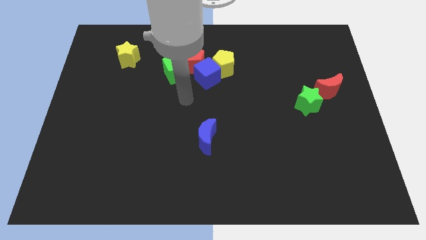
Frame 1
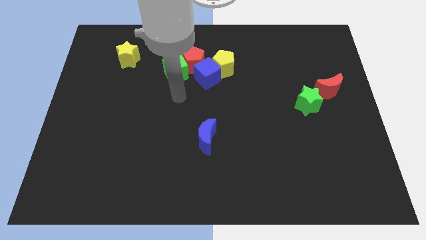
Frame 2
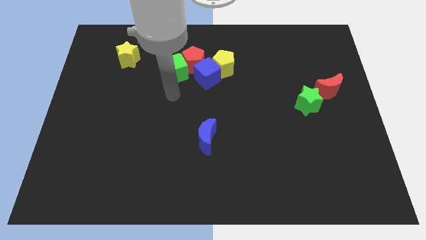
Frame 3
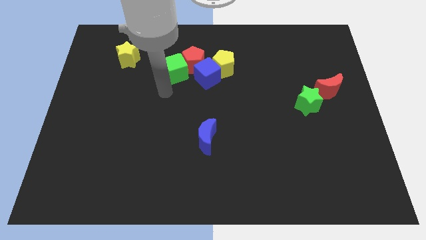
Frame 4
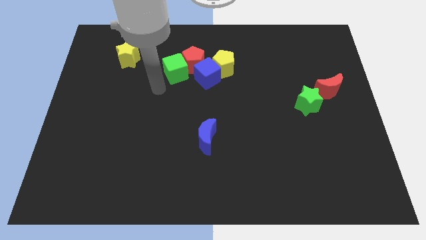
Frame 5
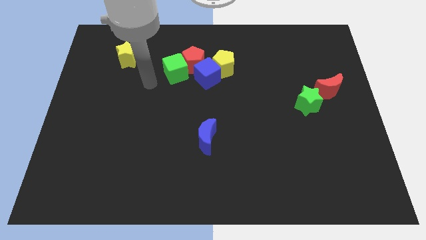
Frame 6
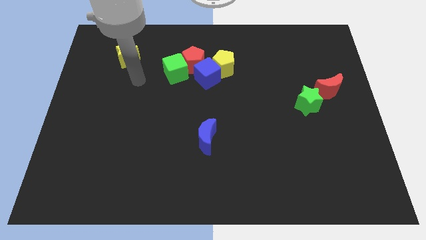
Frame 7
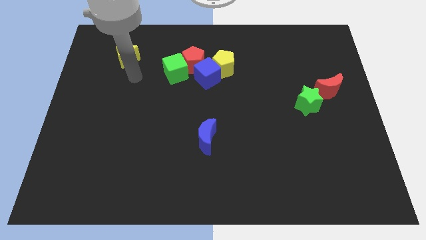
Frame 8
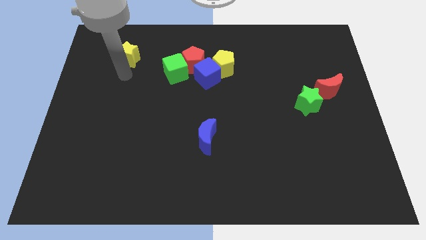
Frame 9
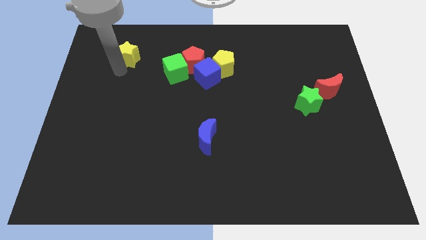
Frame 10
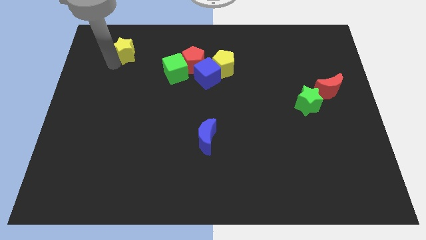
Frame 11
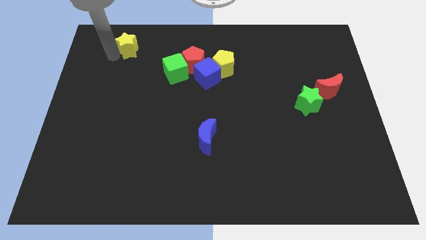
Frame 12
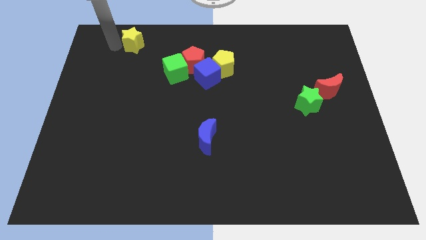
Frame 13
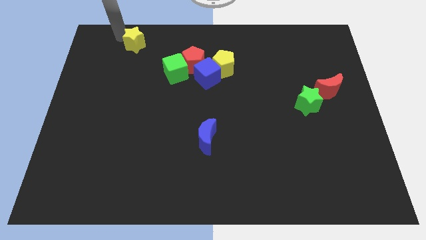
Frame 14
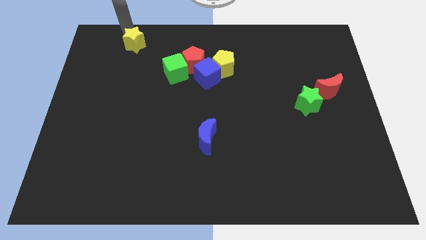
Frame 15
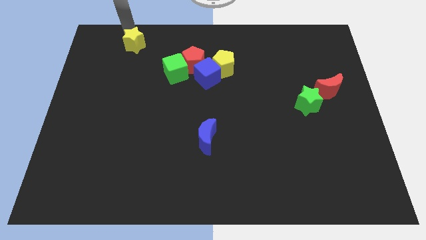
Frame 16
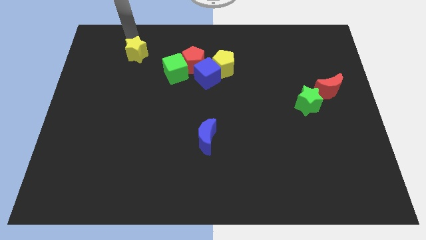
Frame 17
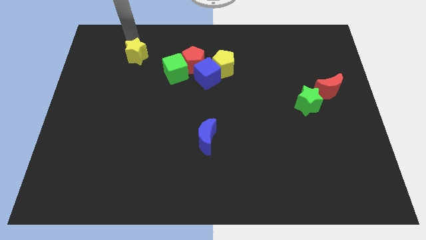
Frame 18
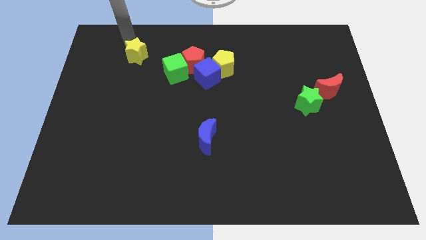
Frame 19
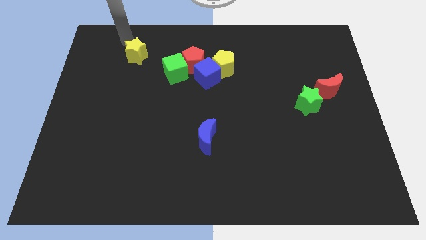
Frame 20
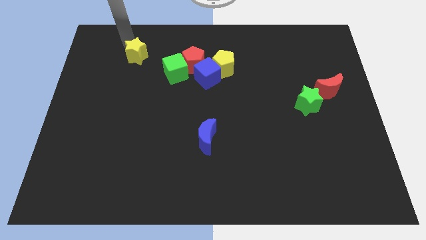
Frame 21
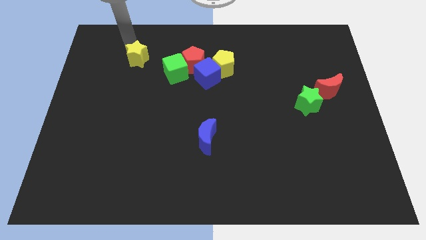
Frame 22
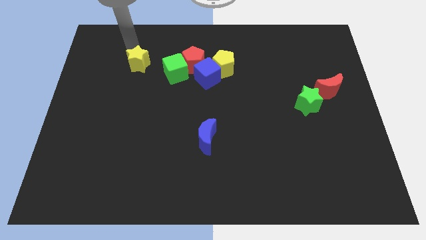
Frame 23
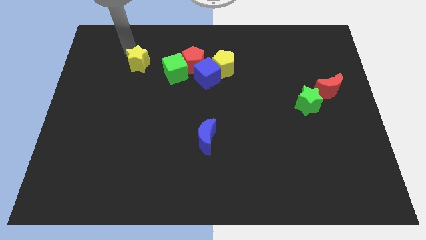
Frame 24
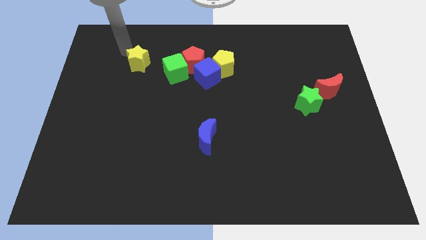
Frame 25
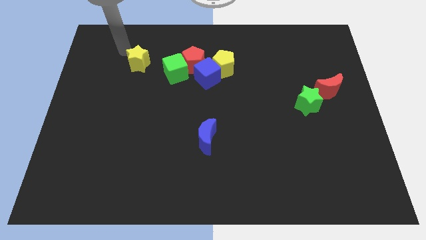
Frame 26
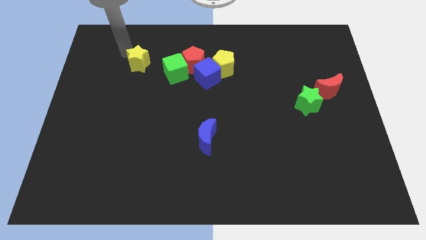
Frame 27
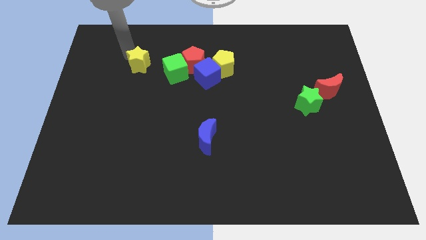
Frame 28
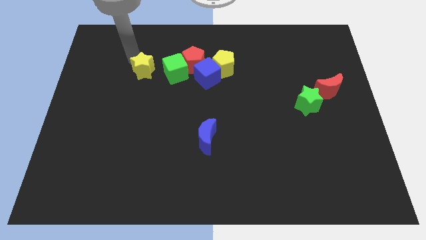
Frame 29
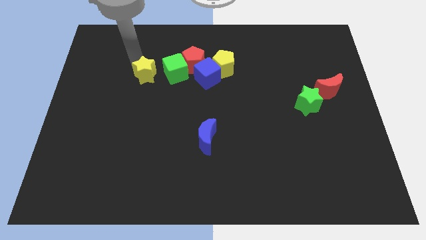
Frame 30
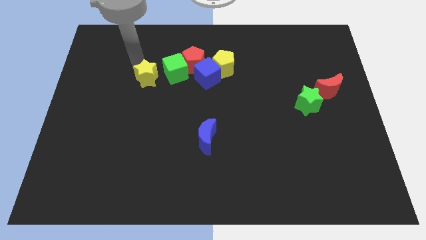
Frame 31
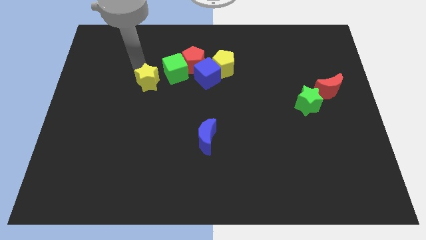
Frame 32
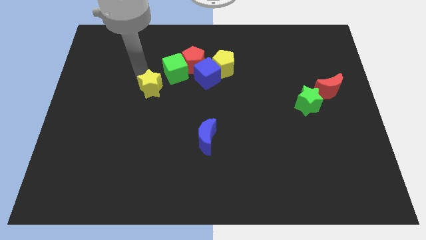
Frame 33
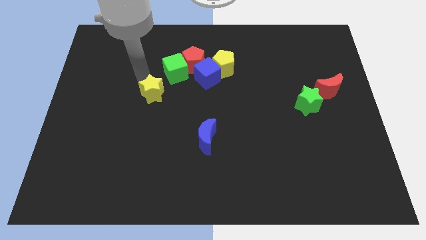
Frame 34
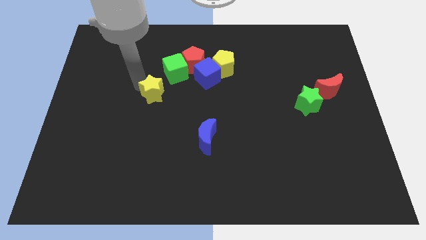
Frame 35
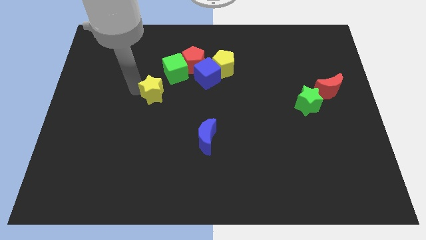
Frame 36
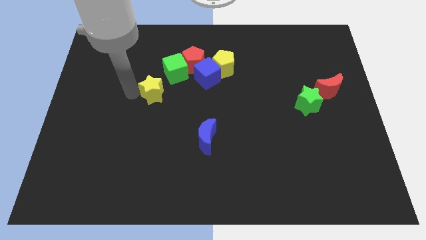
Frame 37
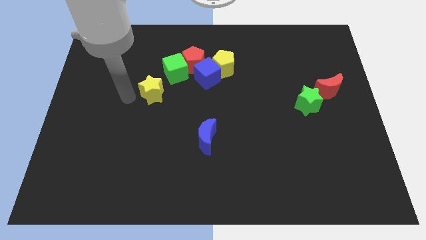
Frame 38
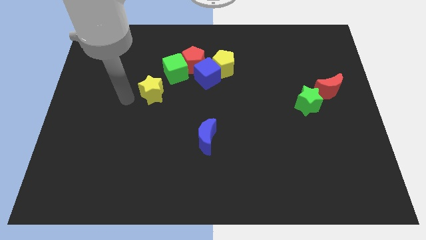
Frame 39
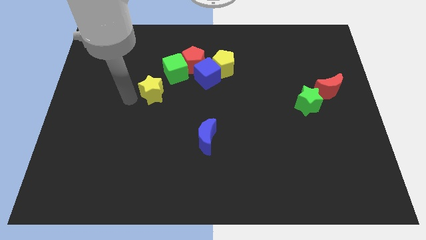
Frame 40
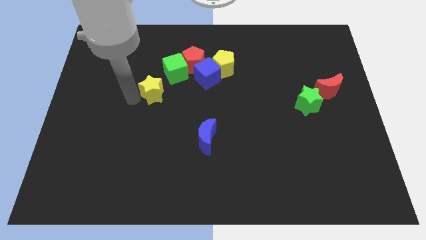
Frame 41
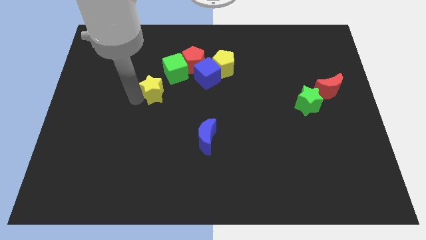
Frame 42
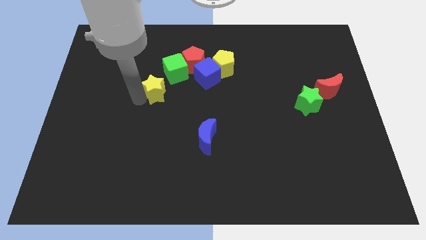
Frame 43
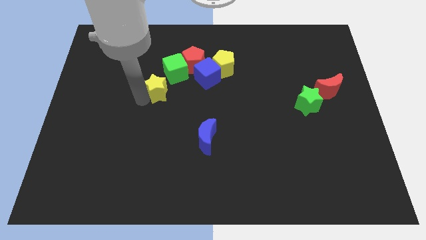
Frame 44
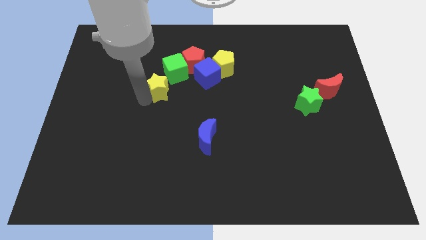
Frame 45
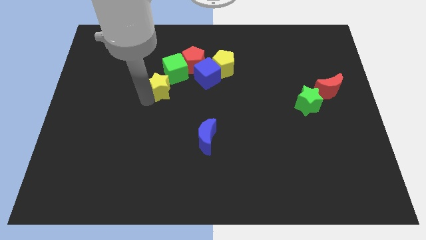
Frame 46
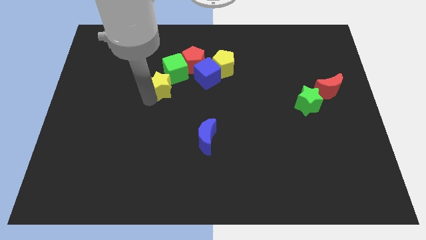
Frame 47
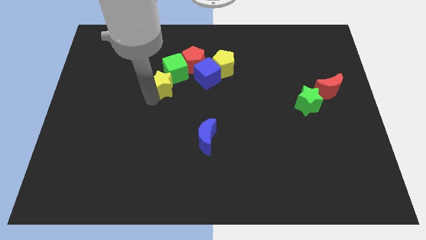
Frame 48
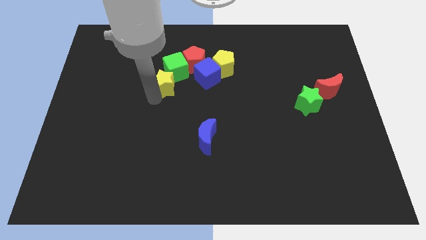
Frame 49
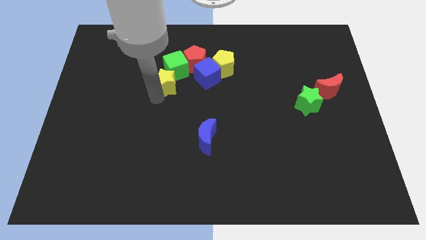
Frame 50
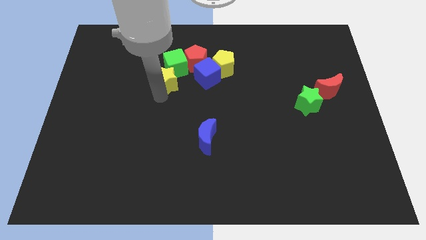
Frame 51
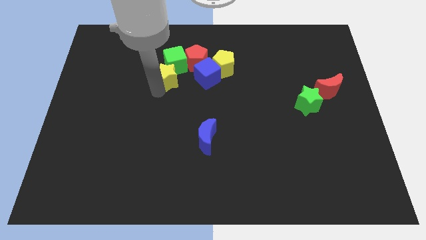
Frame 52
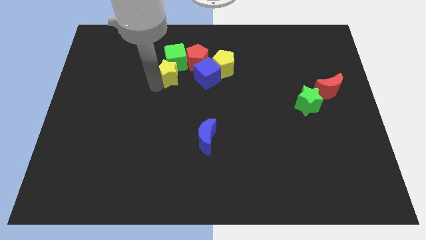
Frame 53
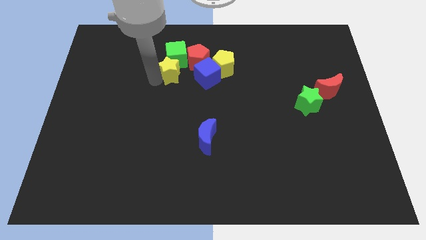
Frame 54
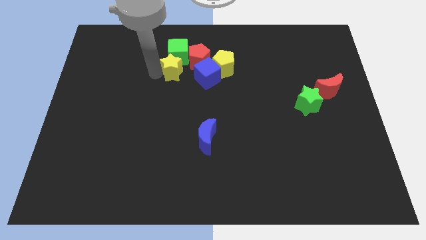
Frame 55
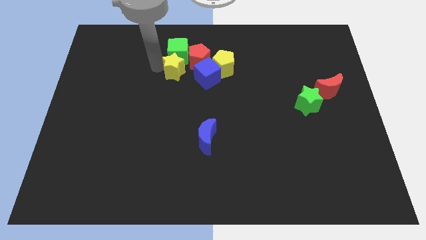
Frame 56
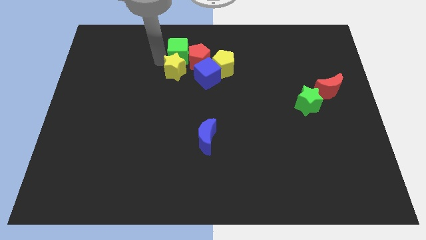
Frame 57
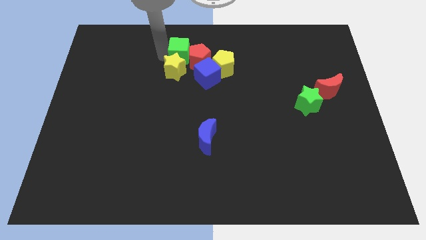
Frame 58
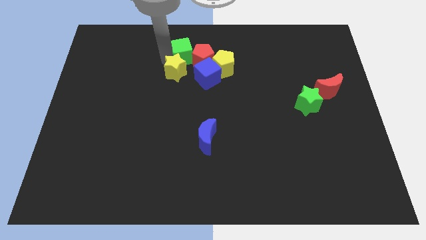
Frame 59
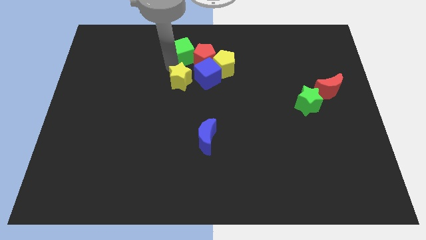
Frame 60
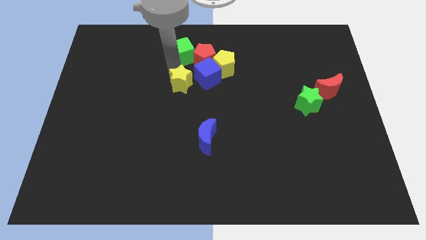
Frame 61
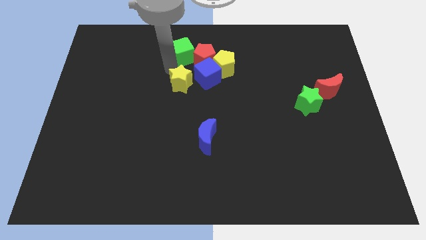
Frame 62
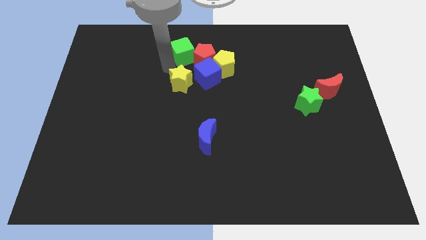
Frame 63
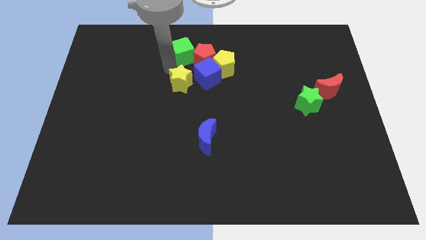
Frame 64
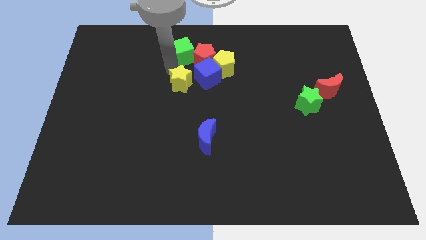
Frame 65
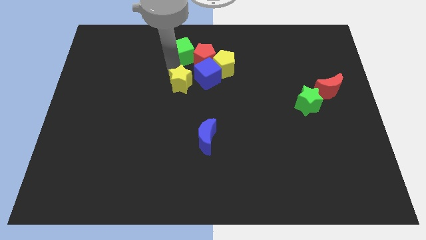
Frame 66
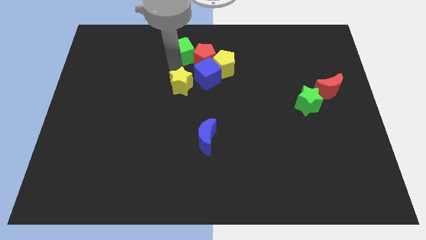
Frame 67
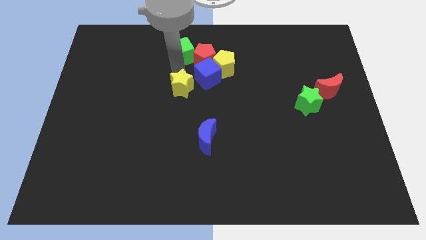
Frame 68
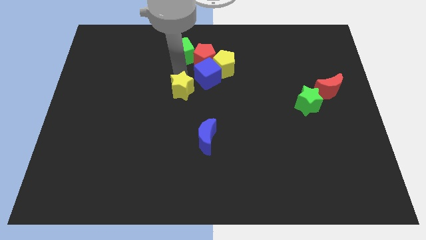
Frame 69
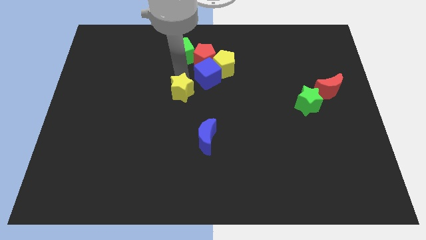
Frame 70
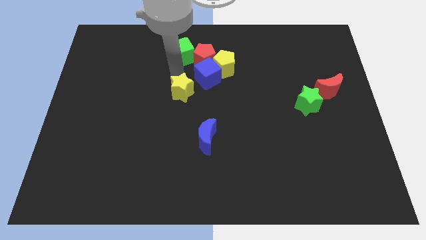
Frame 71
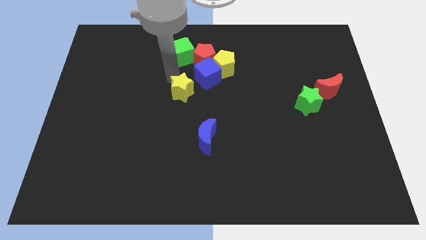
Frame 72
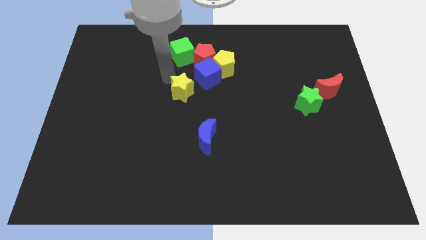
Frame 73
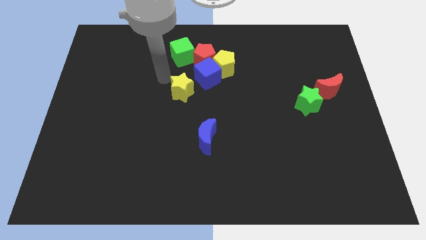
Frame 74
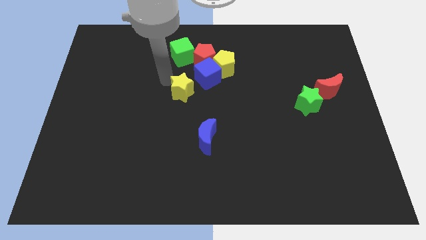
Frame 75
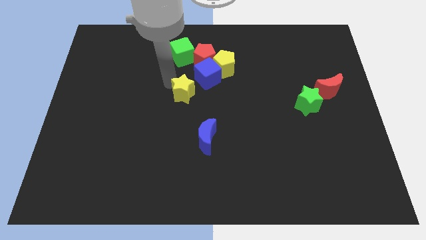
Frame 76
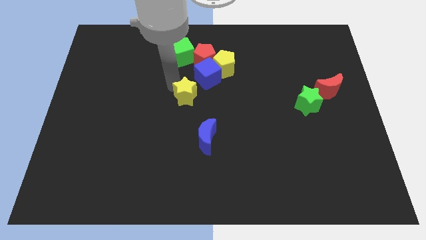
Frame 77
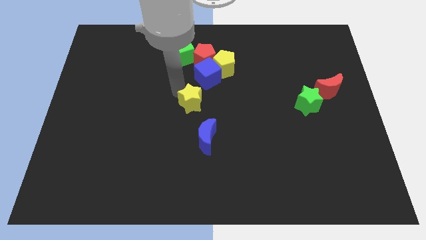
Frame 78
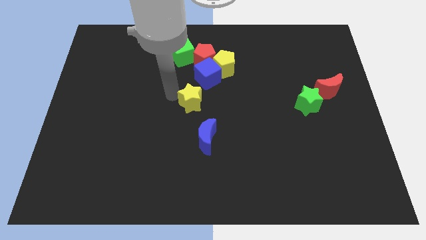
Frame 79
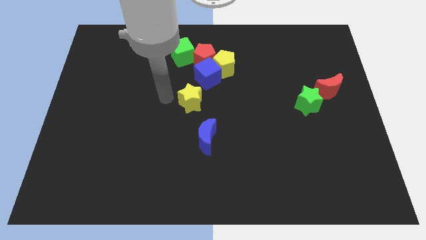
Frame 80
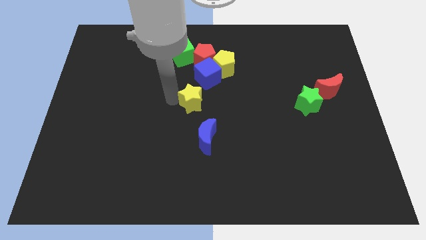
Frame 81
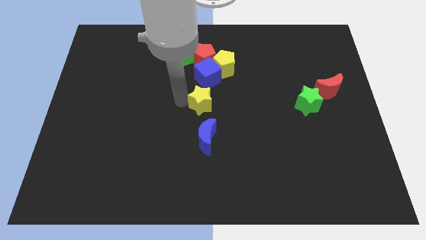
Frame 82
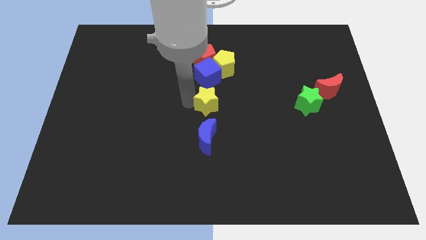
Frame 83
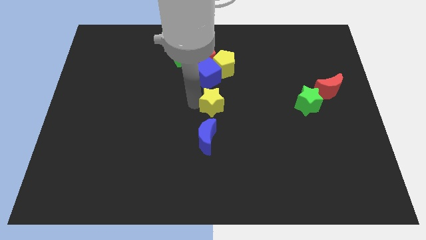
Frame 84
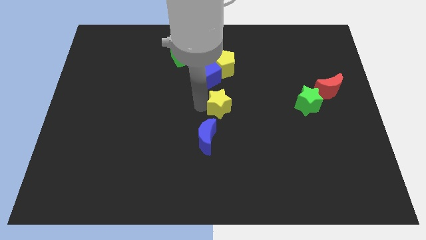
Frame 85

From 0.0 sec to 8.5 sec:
push the yellow star to the bottom right of the blue cube
